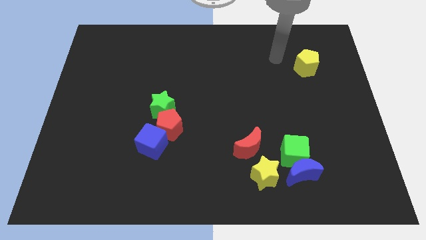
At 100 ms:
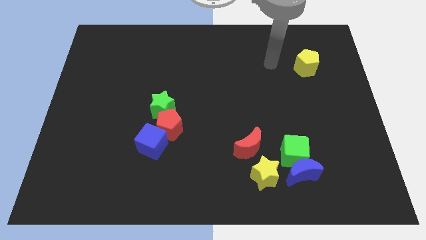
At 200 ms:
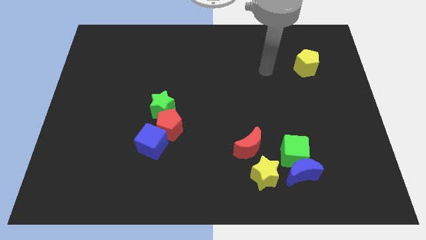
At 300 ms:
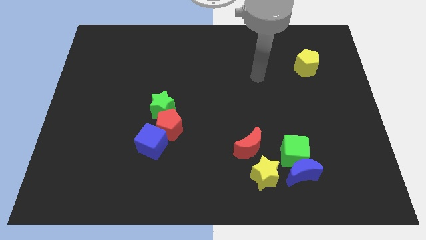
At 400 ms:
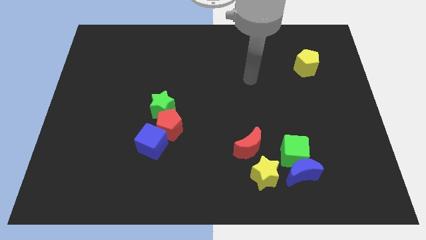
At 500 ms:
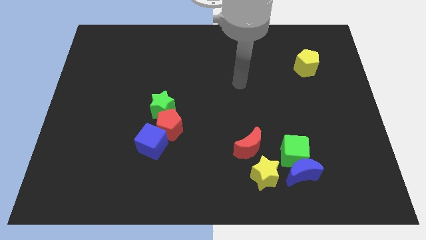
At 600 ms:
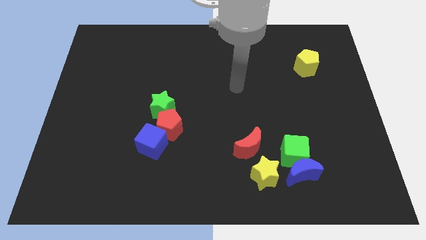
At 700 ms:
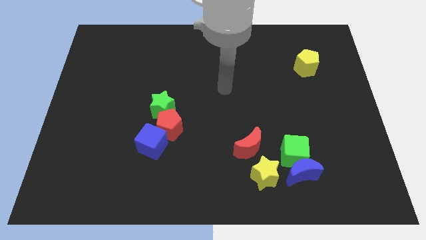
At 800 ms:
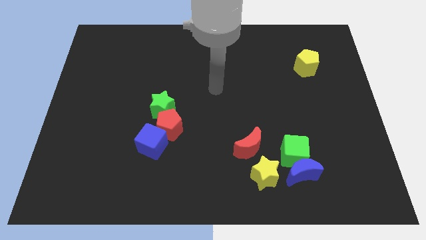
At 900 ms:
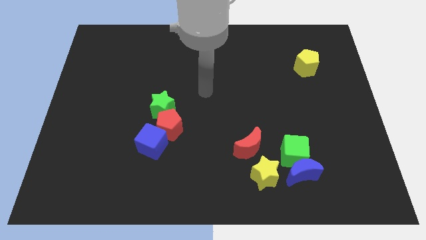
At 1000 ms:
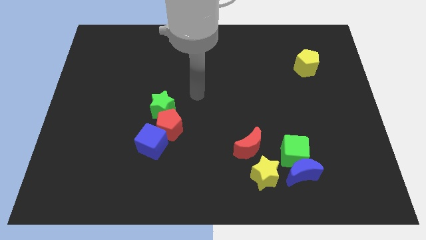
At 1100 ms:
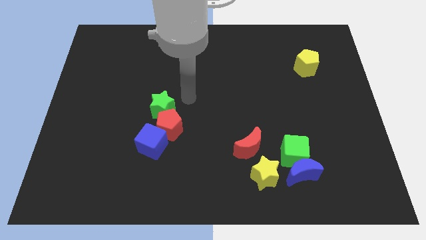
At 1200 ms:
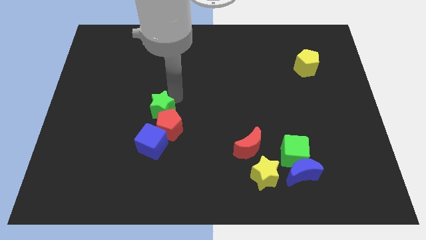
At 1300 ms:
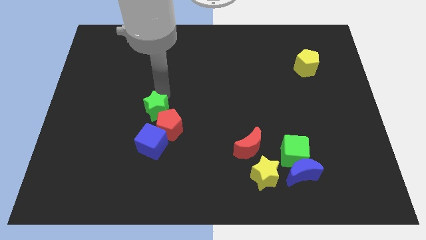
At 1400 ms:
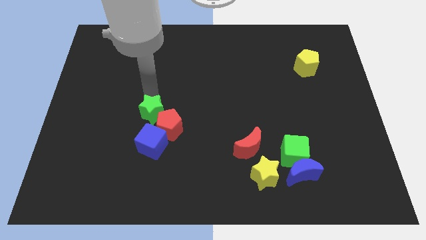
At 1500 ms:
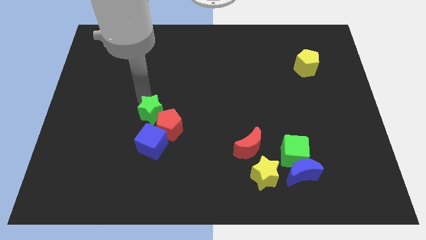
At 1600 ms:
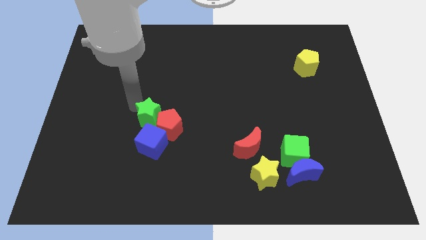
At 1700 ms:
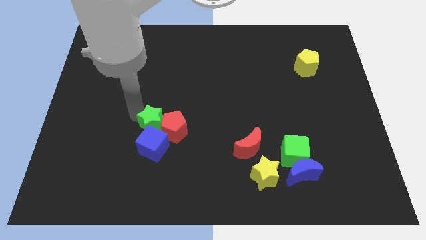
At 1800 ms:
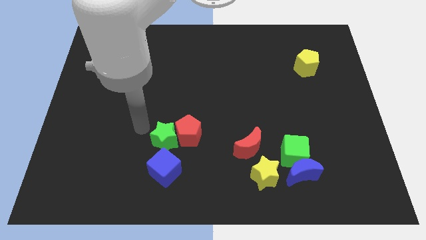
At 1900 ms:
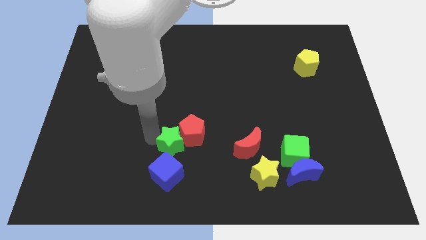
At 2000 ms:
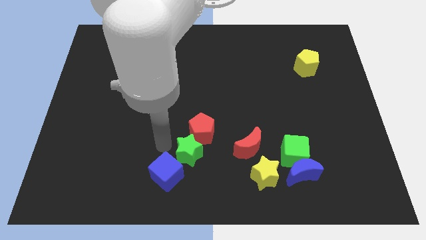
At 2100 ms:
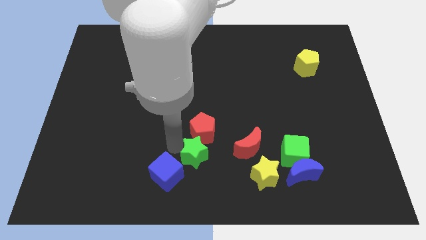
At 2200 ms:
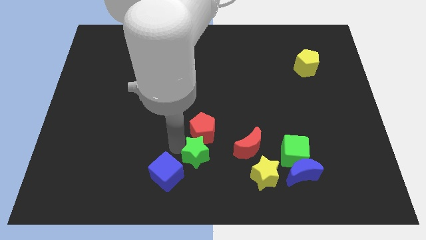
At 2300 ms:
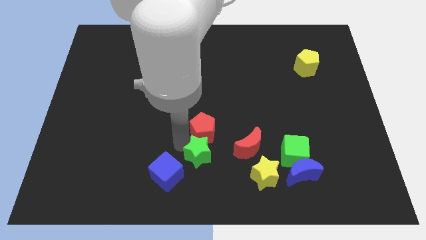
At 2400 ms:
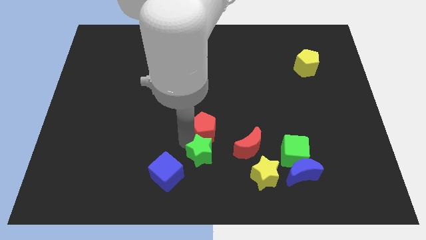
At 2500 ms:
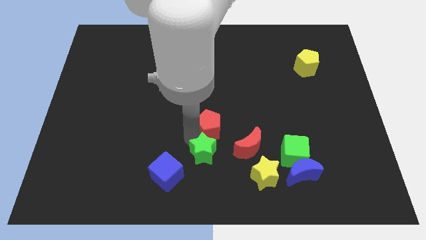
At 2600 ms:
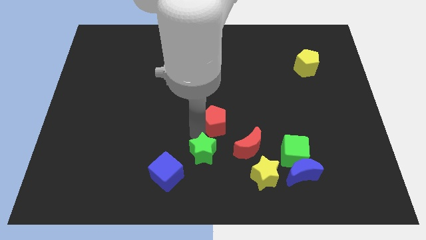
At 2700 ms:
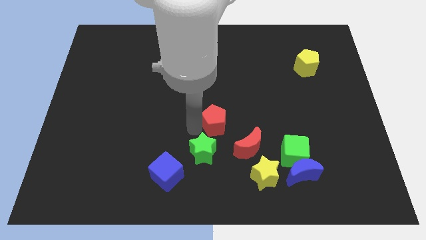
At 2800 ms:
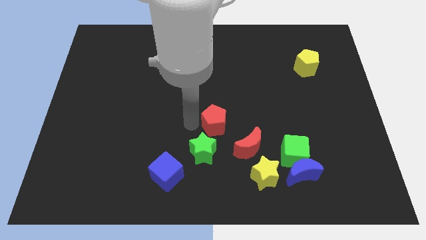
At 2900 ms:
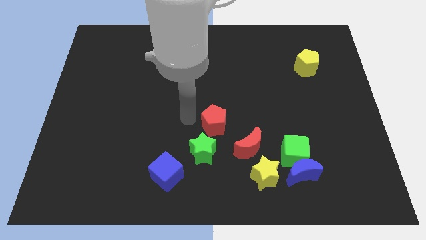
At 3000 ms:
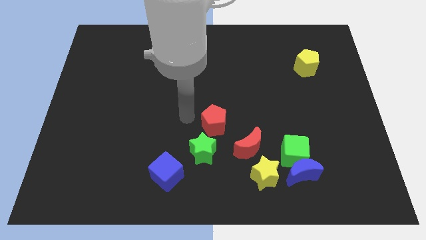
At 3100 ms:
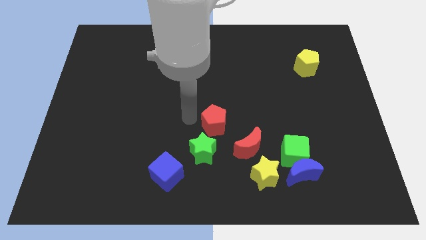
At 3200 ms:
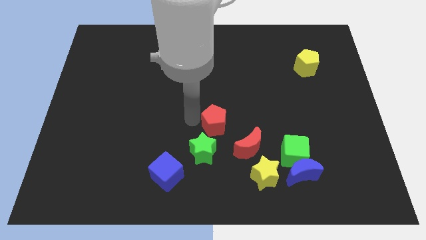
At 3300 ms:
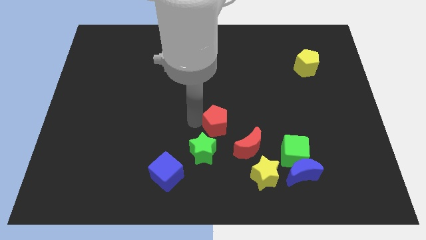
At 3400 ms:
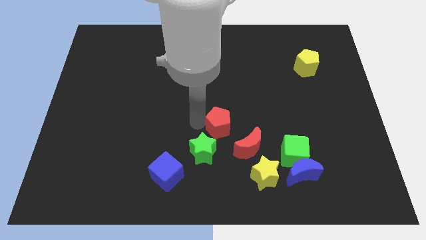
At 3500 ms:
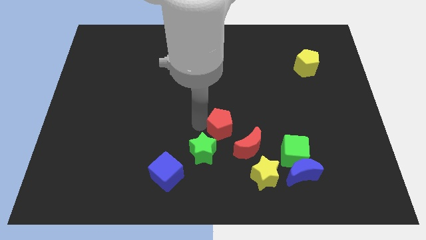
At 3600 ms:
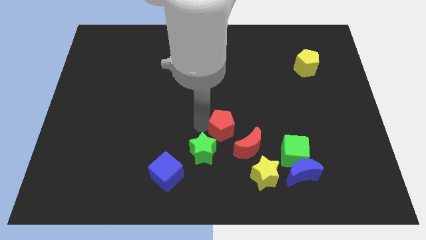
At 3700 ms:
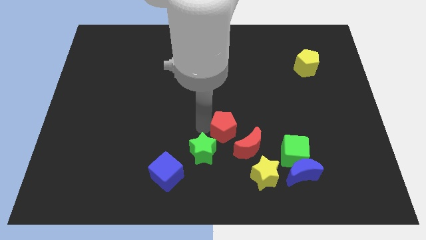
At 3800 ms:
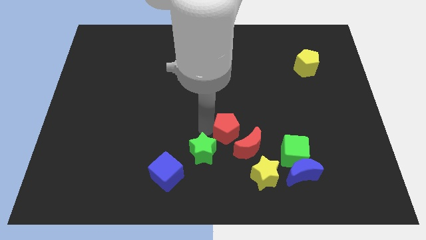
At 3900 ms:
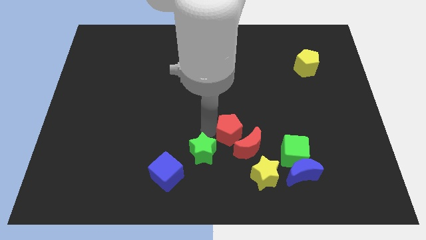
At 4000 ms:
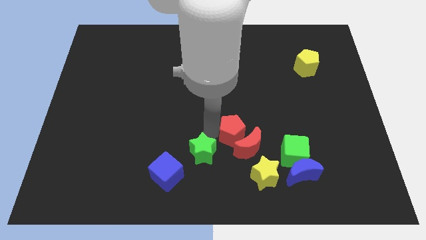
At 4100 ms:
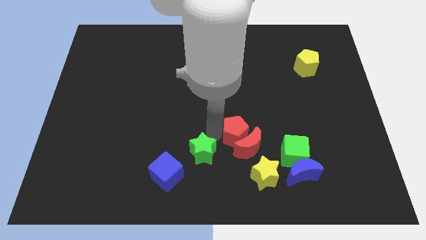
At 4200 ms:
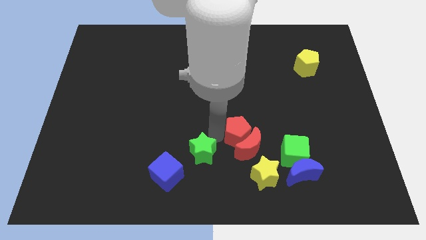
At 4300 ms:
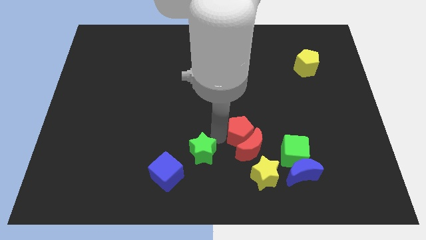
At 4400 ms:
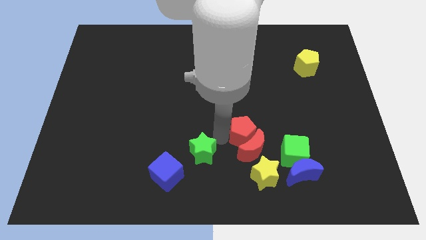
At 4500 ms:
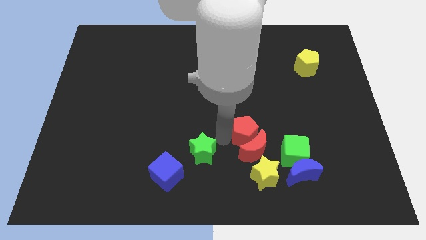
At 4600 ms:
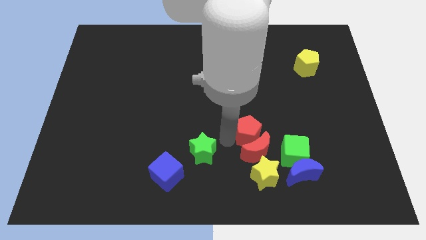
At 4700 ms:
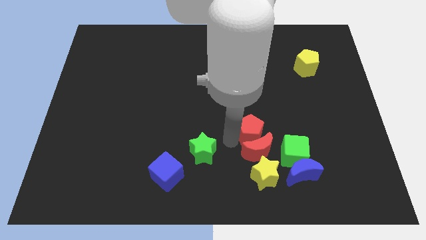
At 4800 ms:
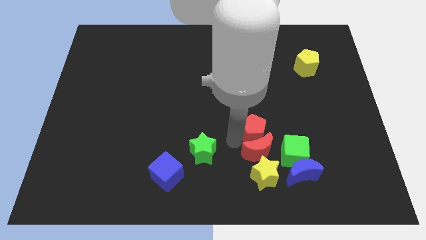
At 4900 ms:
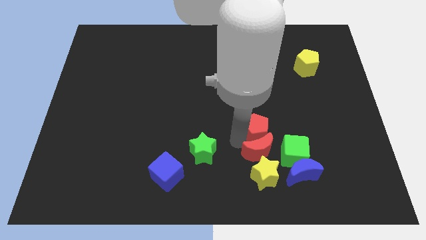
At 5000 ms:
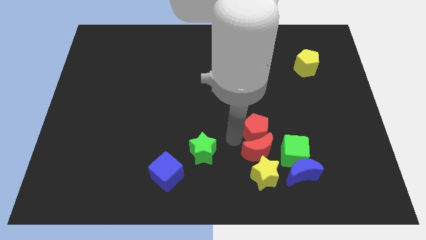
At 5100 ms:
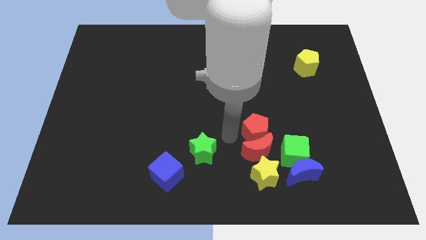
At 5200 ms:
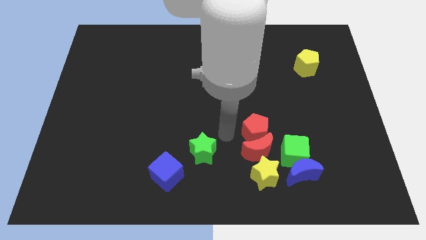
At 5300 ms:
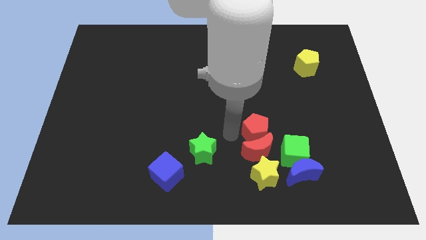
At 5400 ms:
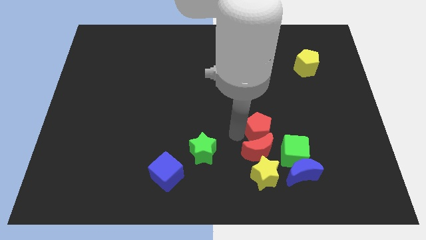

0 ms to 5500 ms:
slide the red pentagon right

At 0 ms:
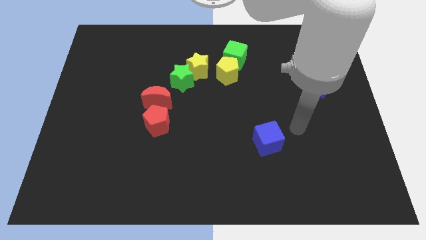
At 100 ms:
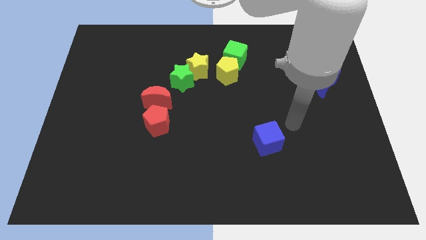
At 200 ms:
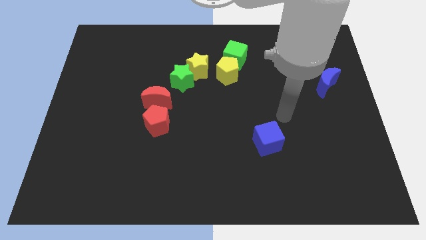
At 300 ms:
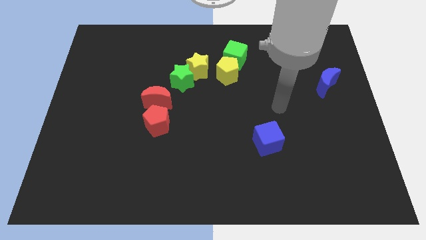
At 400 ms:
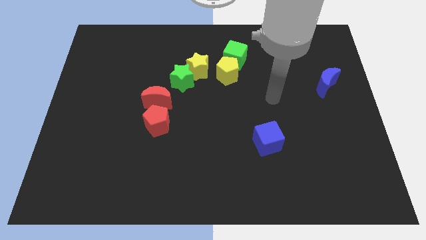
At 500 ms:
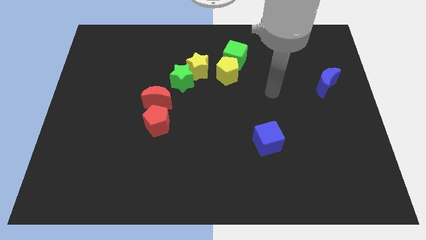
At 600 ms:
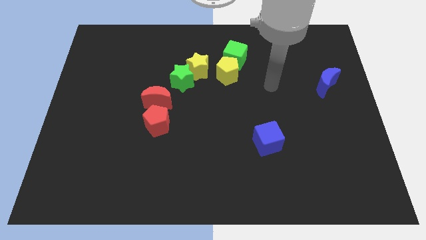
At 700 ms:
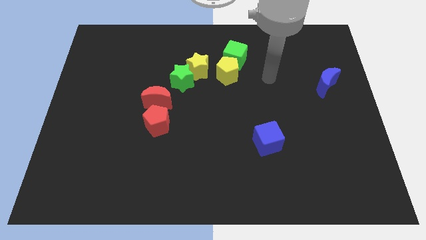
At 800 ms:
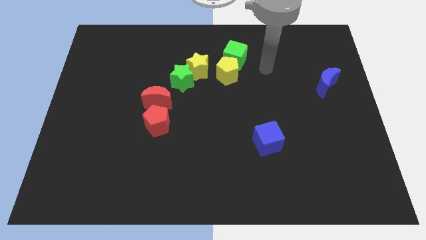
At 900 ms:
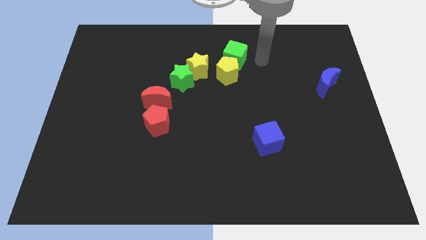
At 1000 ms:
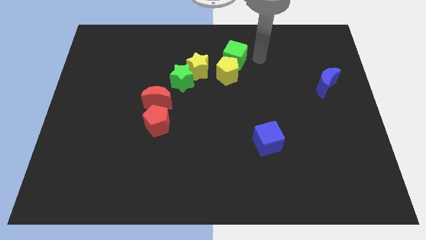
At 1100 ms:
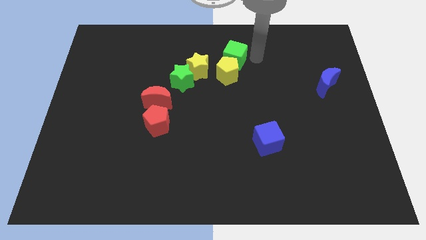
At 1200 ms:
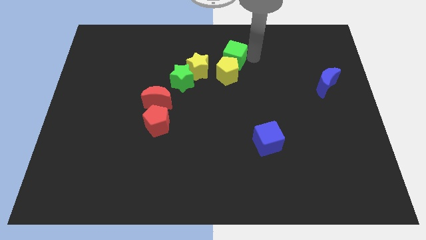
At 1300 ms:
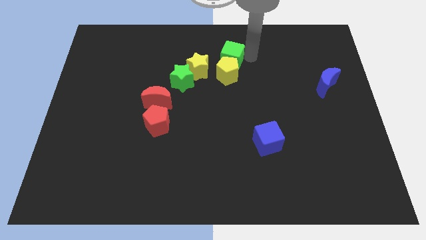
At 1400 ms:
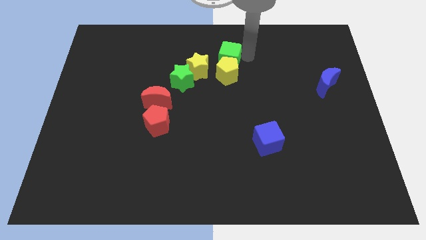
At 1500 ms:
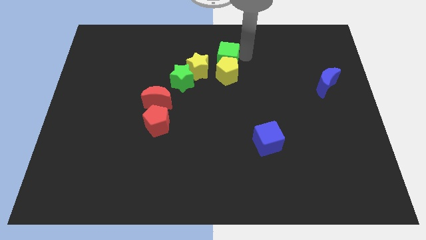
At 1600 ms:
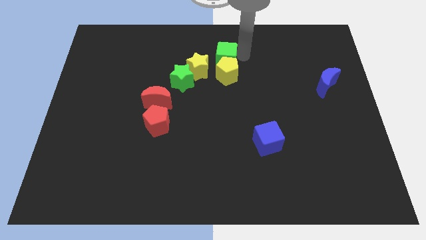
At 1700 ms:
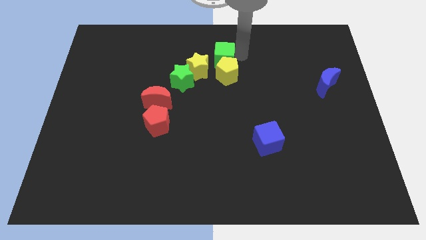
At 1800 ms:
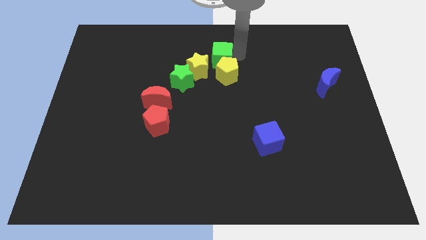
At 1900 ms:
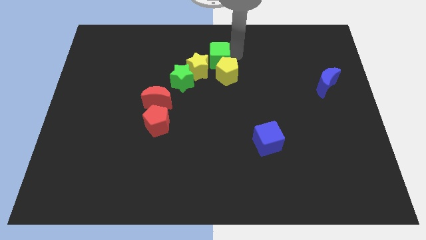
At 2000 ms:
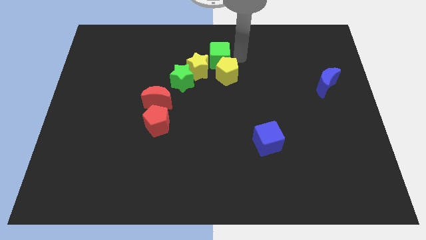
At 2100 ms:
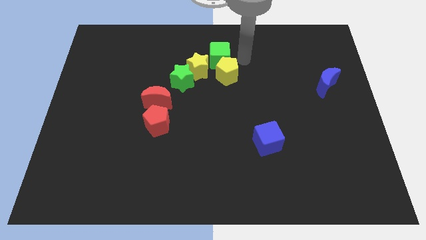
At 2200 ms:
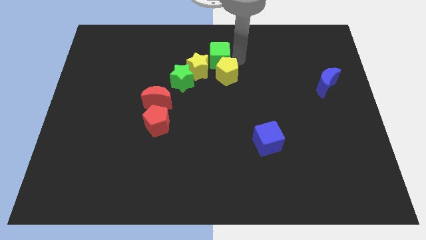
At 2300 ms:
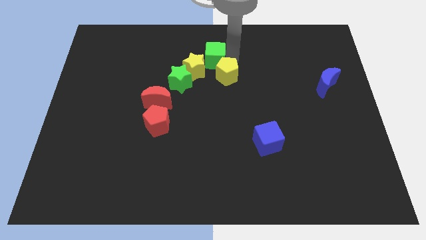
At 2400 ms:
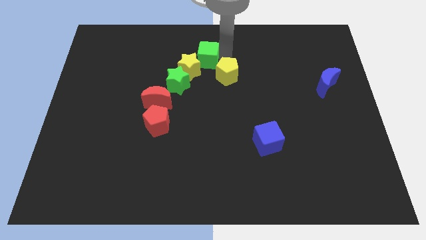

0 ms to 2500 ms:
slide the green cube to the left somewhat

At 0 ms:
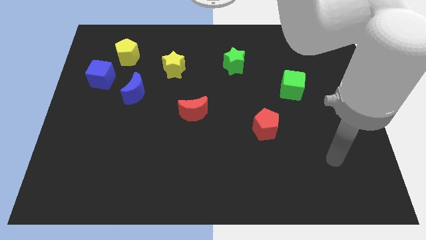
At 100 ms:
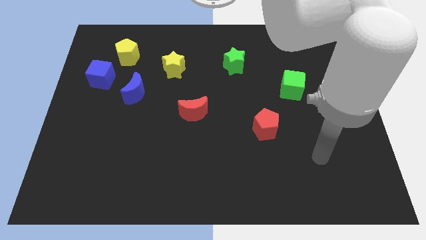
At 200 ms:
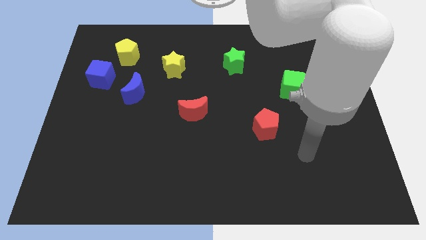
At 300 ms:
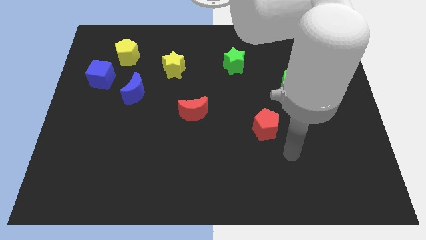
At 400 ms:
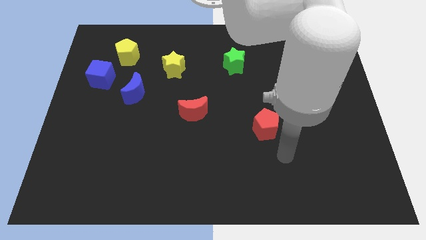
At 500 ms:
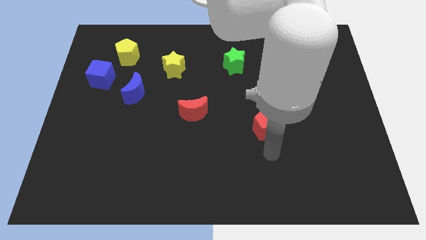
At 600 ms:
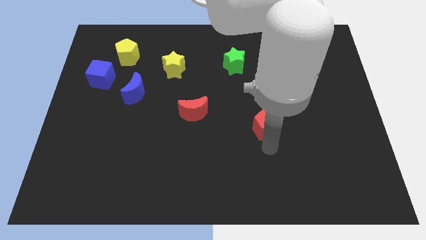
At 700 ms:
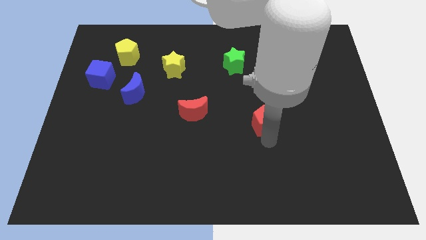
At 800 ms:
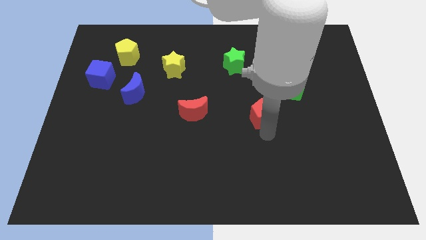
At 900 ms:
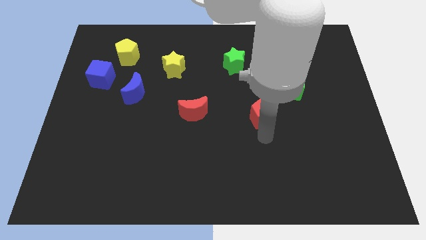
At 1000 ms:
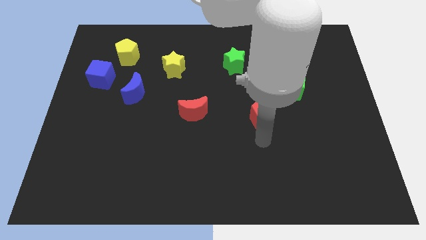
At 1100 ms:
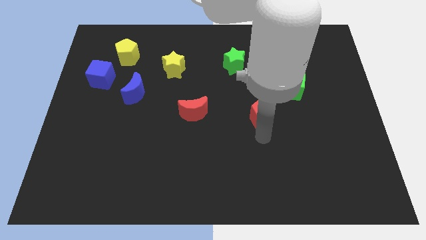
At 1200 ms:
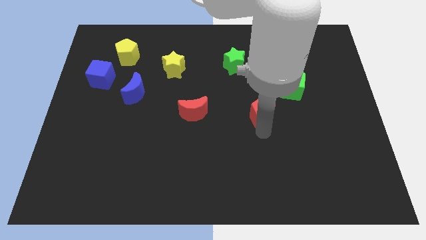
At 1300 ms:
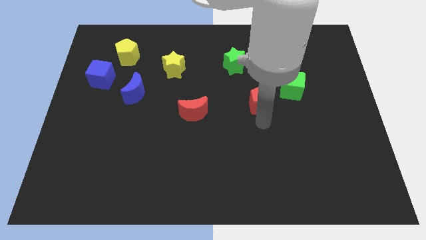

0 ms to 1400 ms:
move the red pentagon a little bit upwards
